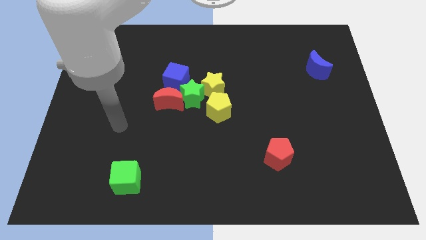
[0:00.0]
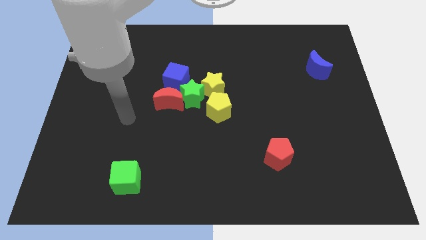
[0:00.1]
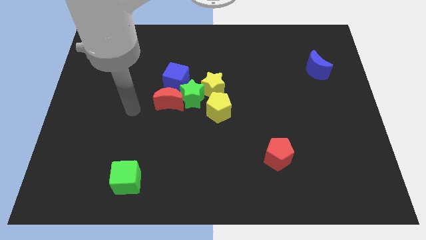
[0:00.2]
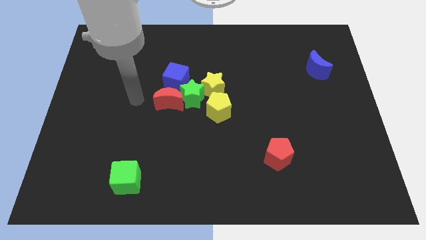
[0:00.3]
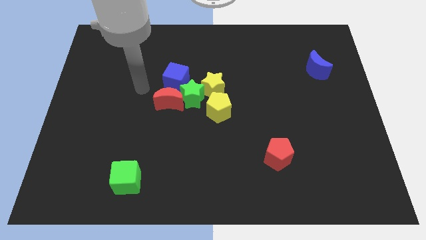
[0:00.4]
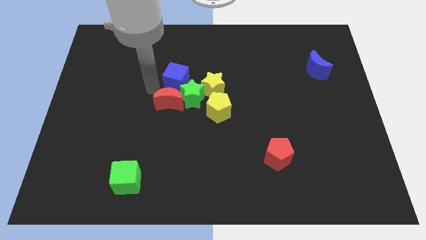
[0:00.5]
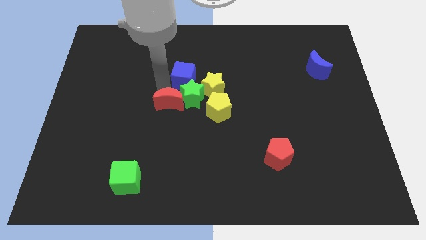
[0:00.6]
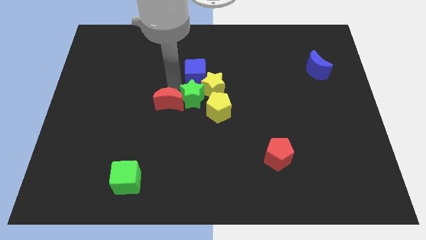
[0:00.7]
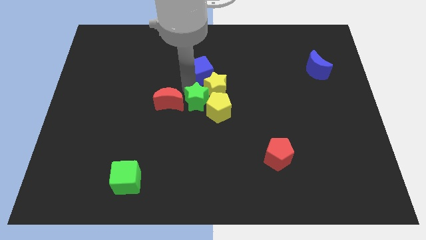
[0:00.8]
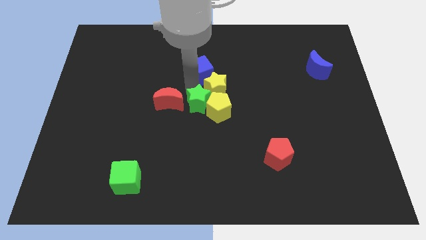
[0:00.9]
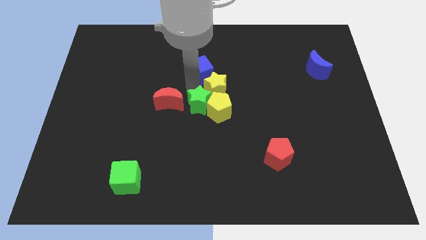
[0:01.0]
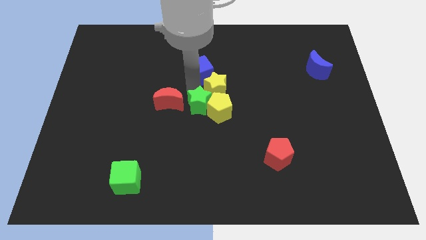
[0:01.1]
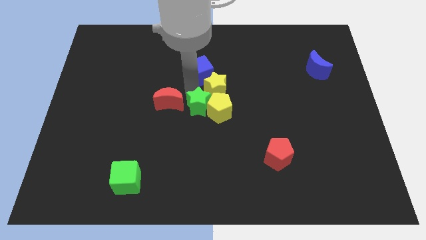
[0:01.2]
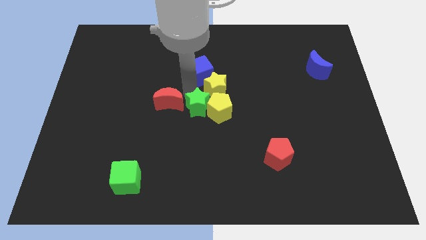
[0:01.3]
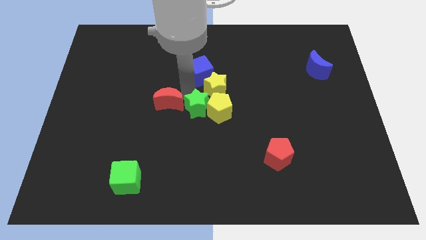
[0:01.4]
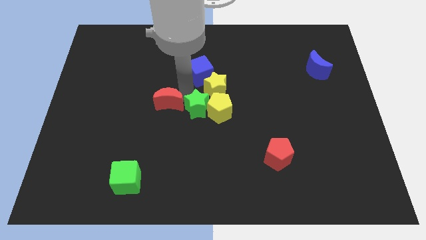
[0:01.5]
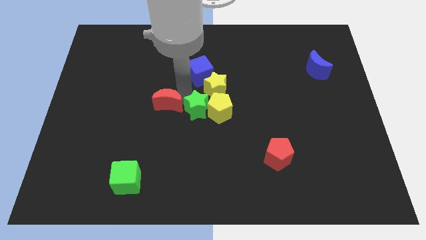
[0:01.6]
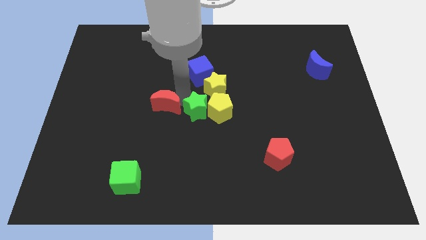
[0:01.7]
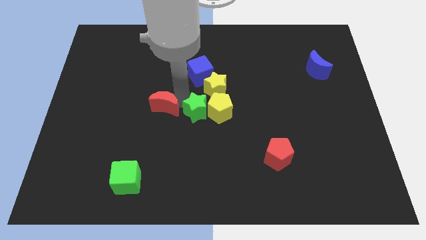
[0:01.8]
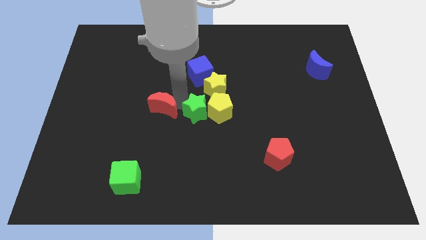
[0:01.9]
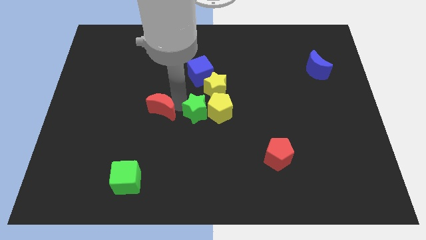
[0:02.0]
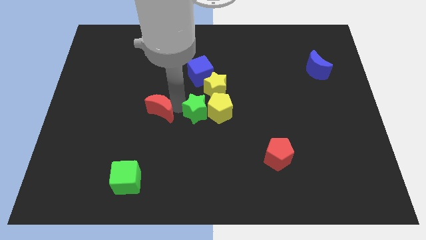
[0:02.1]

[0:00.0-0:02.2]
separate the red moon from the green star and blue cube

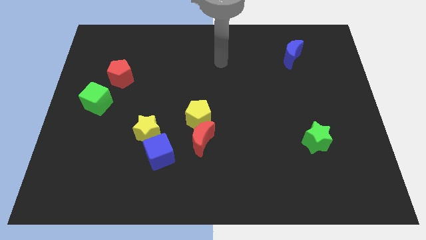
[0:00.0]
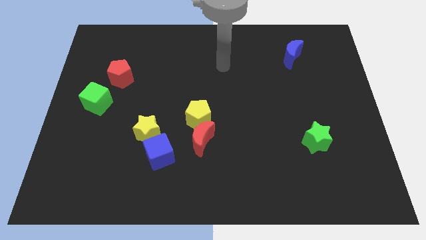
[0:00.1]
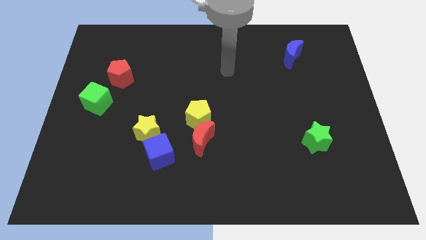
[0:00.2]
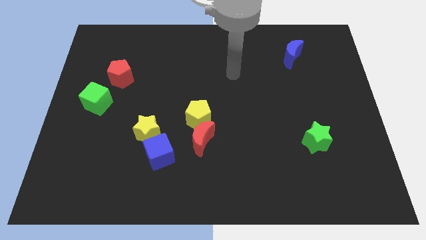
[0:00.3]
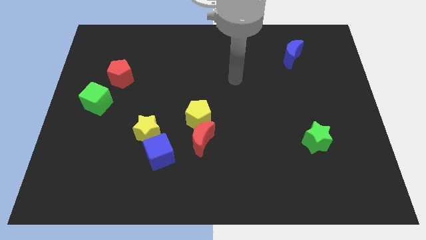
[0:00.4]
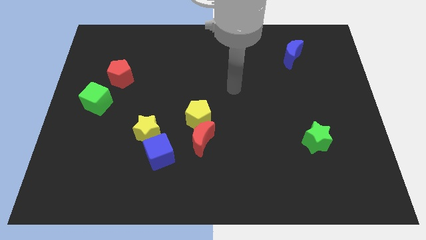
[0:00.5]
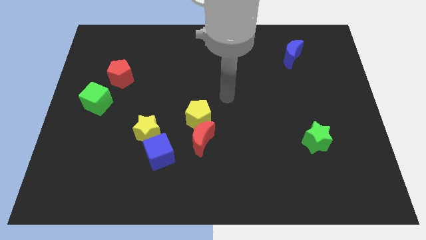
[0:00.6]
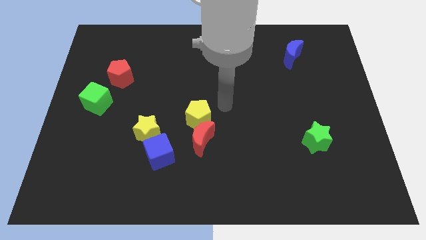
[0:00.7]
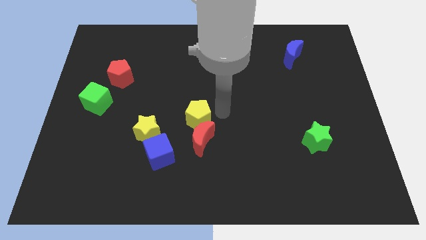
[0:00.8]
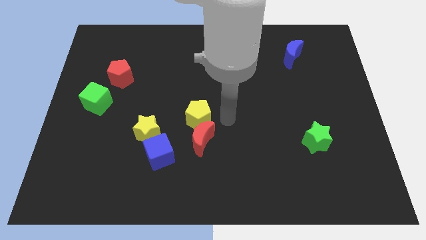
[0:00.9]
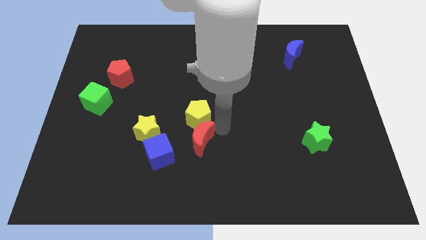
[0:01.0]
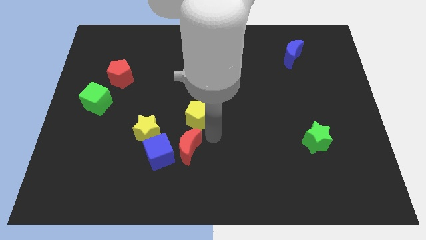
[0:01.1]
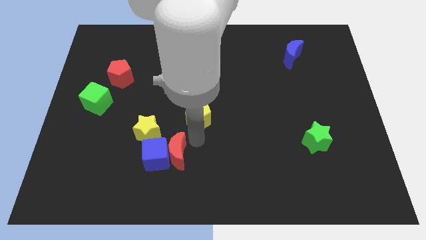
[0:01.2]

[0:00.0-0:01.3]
separate the yellow pentagon from the red moon

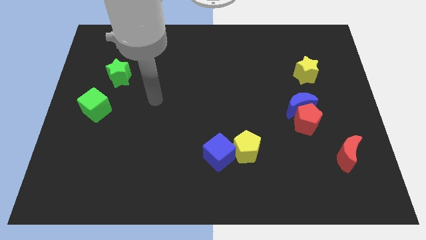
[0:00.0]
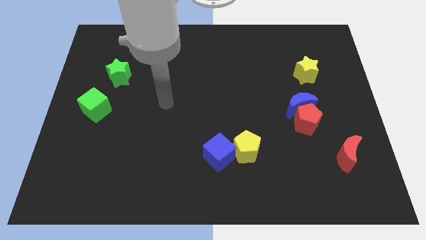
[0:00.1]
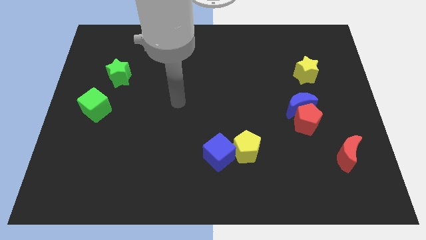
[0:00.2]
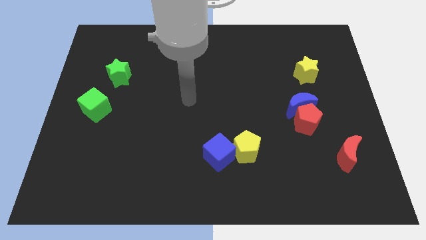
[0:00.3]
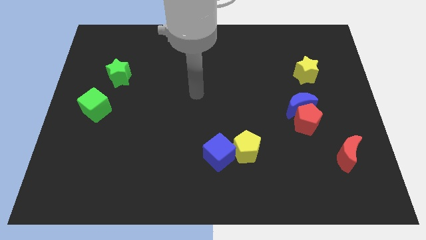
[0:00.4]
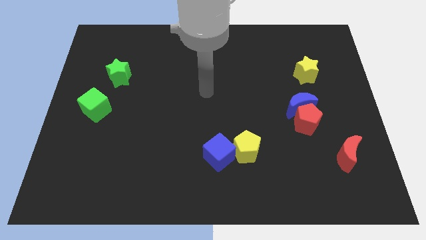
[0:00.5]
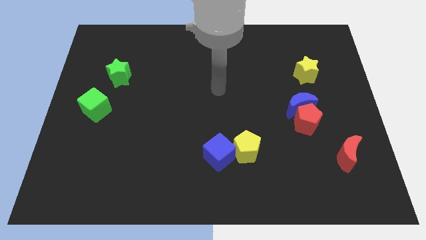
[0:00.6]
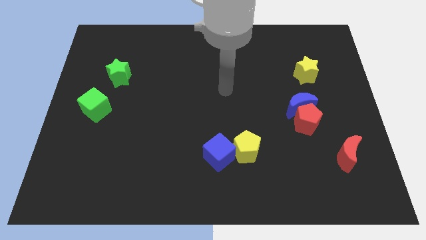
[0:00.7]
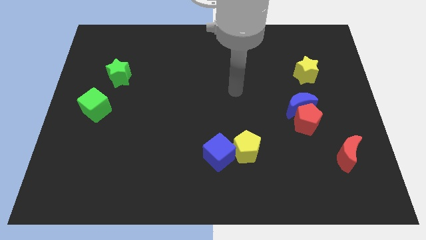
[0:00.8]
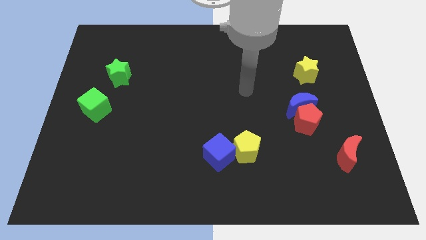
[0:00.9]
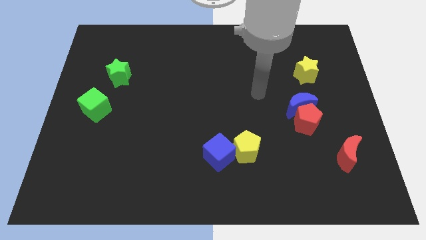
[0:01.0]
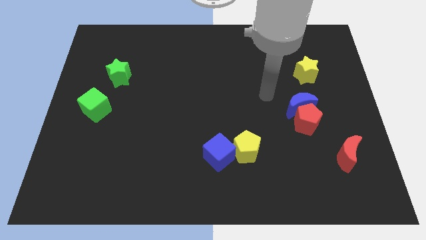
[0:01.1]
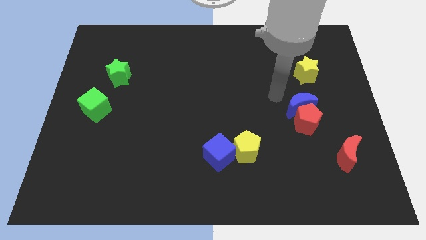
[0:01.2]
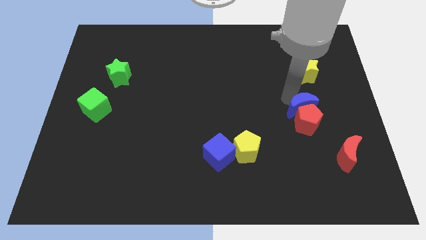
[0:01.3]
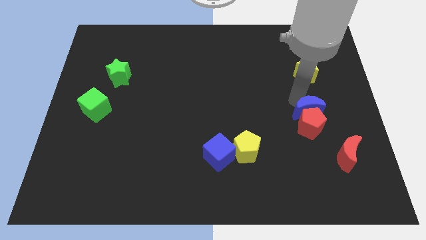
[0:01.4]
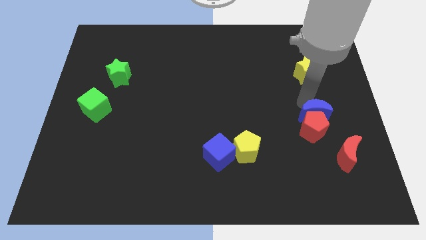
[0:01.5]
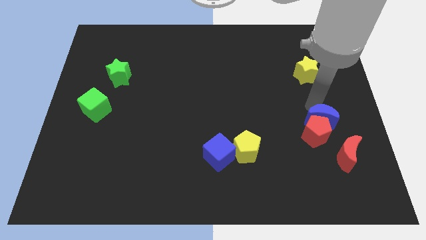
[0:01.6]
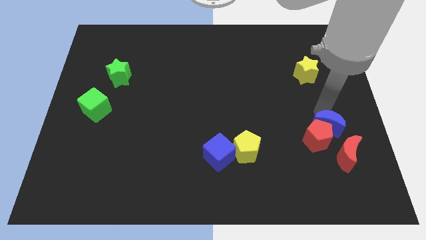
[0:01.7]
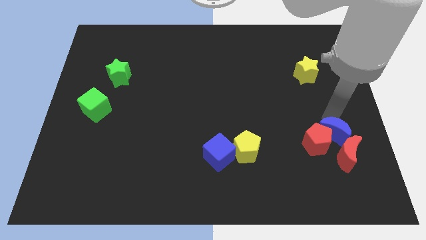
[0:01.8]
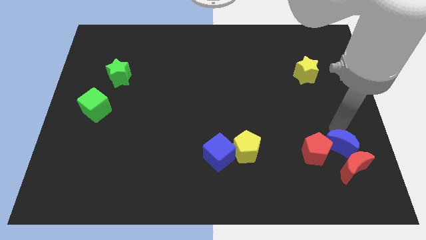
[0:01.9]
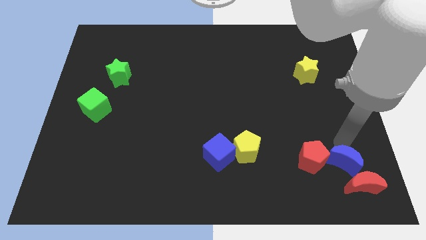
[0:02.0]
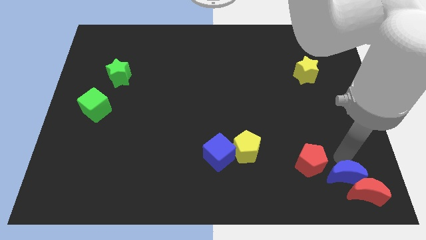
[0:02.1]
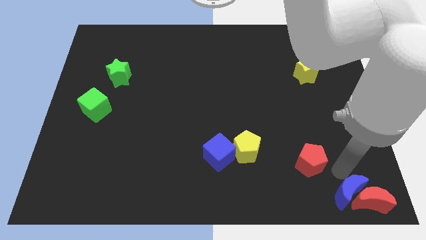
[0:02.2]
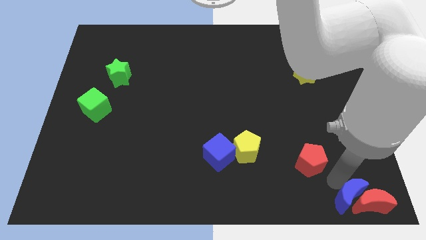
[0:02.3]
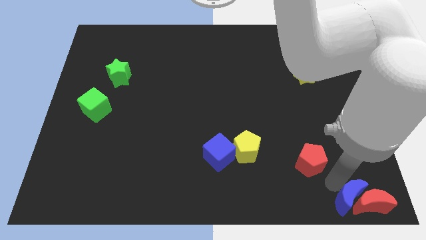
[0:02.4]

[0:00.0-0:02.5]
pull the red pentagon apart from the blue moon

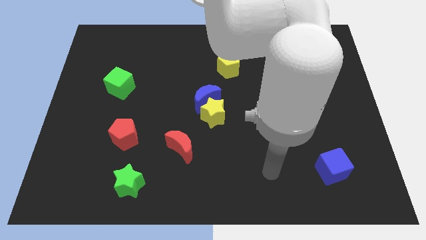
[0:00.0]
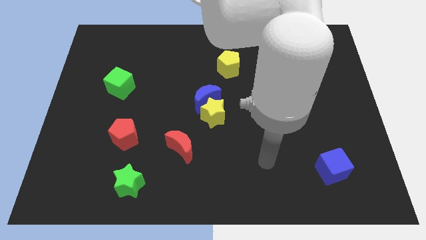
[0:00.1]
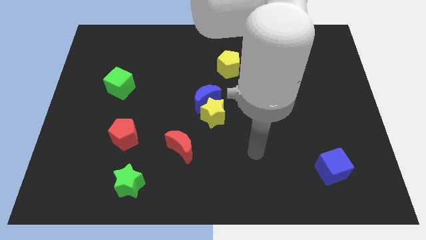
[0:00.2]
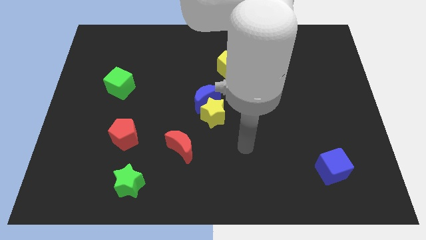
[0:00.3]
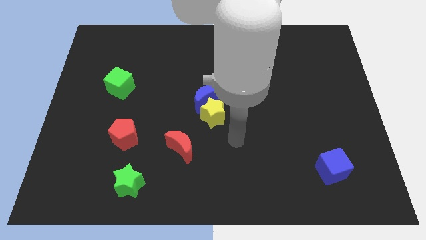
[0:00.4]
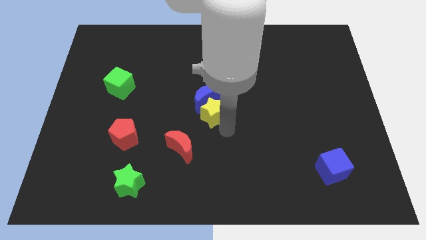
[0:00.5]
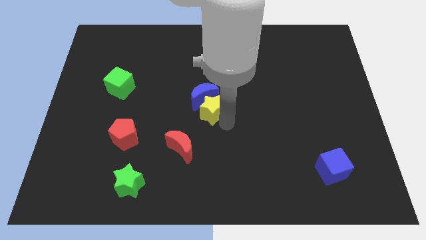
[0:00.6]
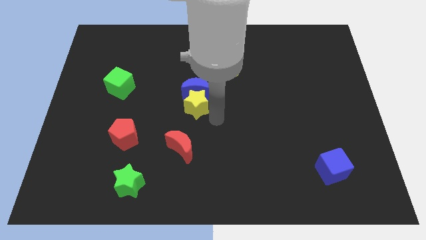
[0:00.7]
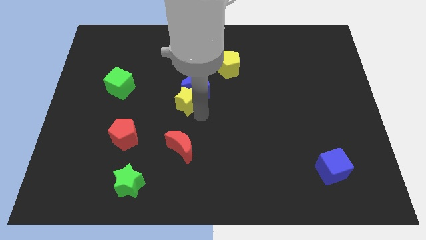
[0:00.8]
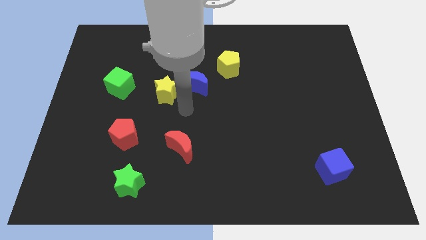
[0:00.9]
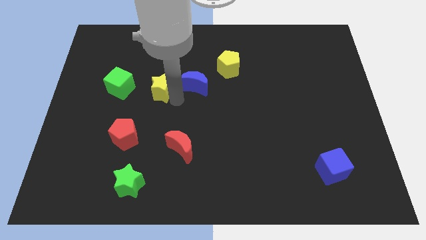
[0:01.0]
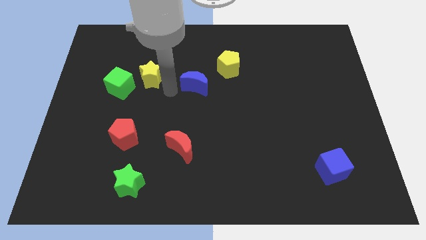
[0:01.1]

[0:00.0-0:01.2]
separate the blue moon from the yellow star

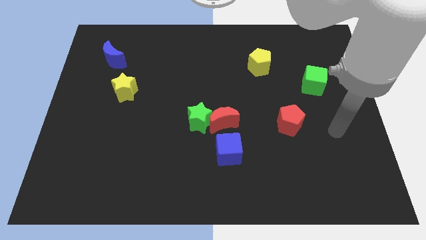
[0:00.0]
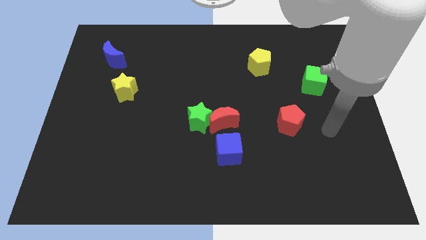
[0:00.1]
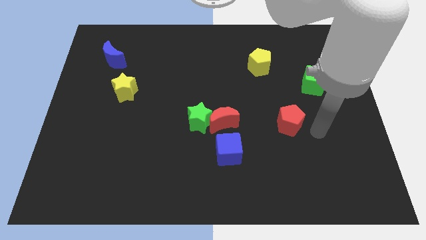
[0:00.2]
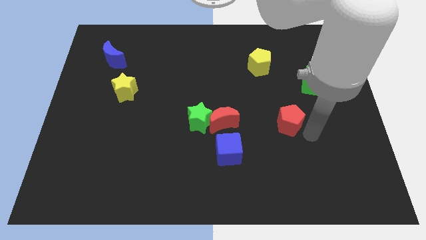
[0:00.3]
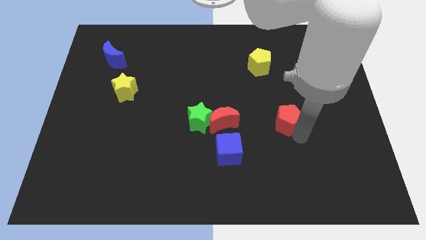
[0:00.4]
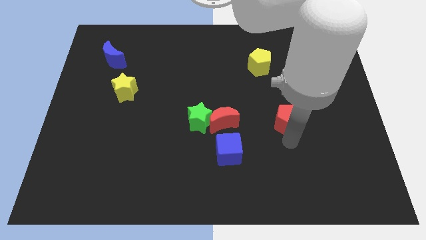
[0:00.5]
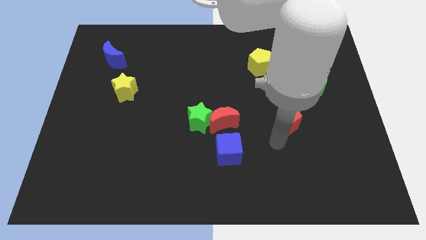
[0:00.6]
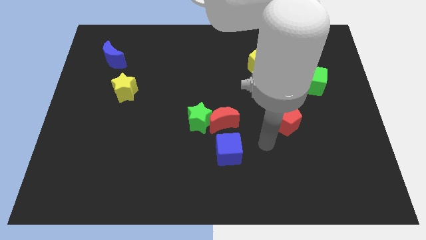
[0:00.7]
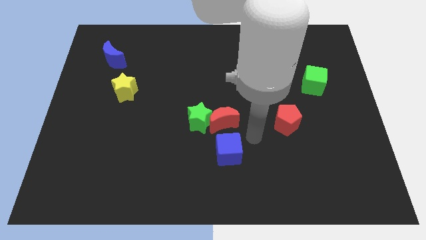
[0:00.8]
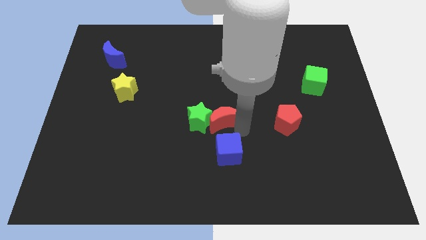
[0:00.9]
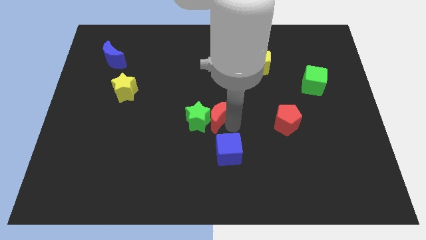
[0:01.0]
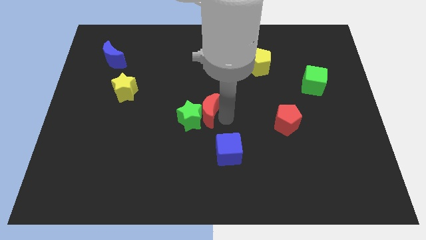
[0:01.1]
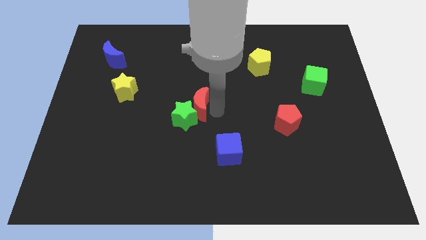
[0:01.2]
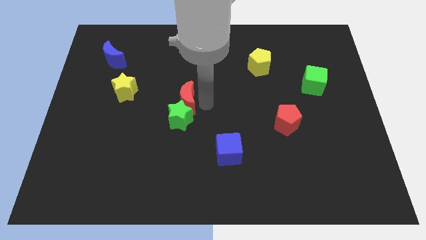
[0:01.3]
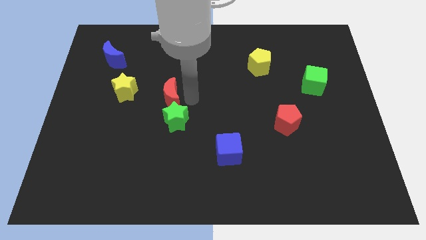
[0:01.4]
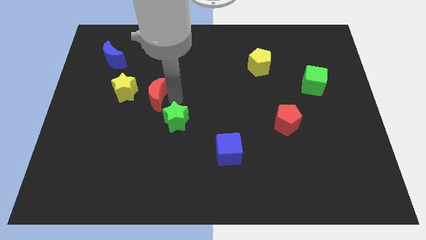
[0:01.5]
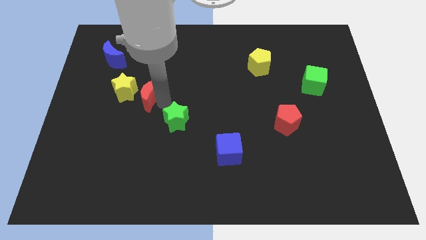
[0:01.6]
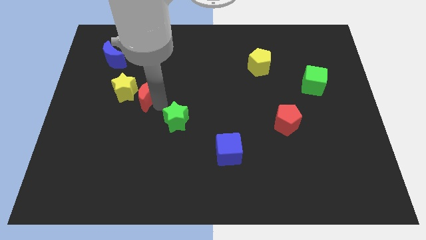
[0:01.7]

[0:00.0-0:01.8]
pull the green star apart from the red moon

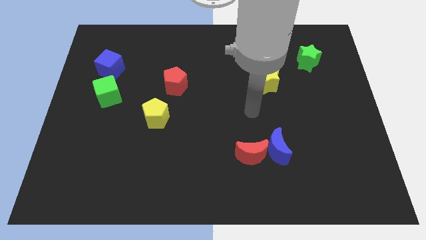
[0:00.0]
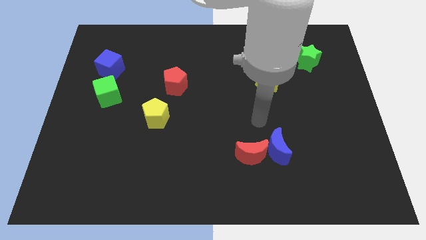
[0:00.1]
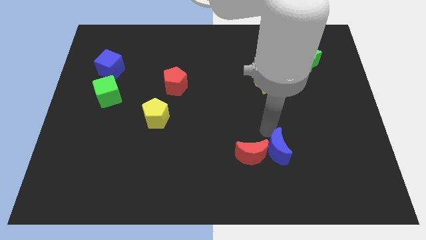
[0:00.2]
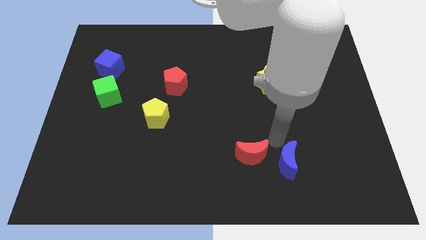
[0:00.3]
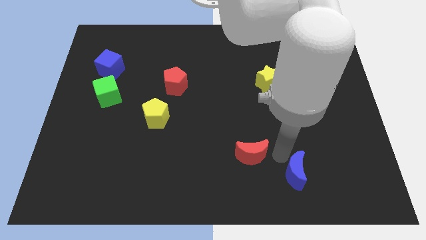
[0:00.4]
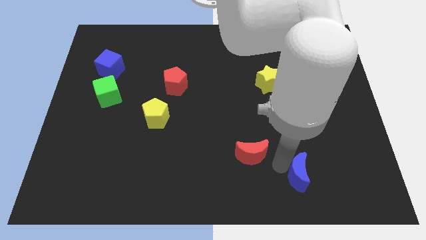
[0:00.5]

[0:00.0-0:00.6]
pull the red moon apart from the blue moon
